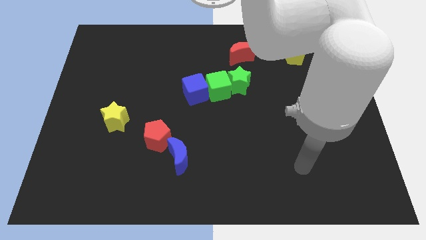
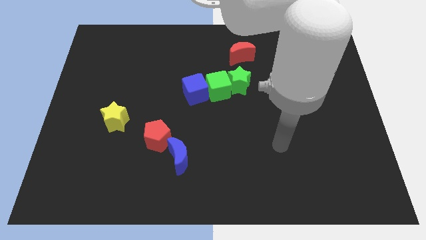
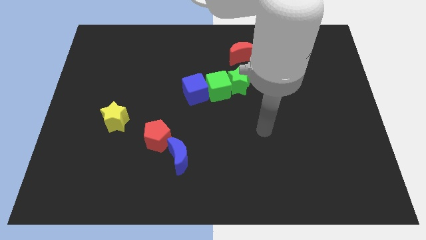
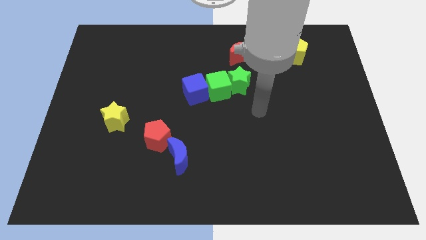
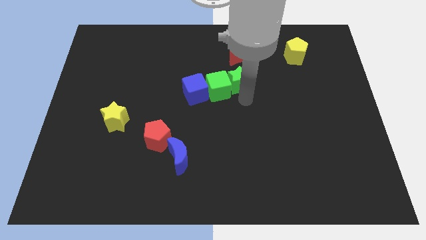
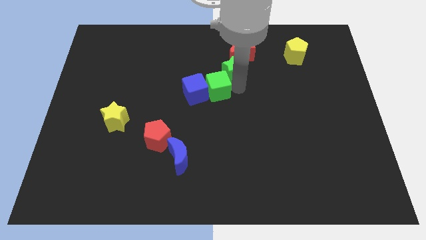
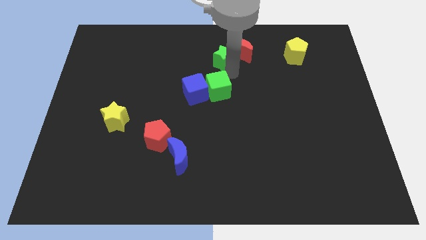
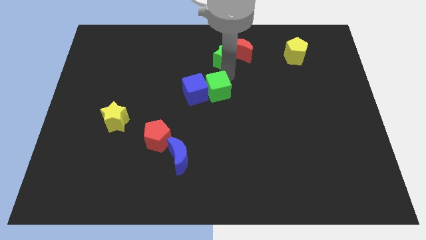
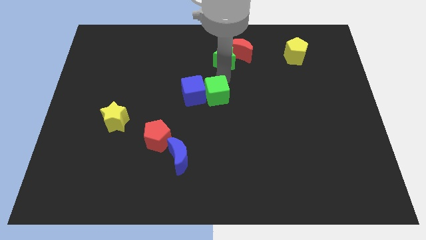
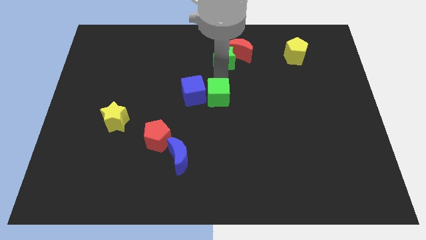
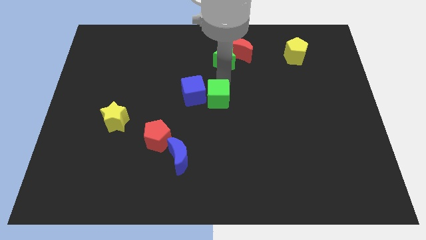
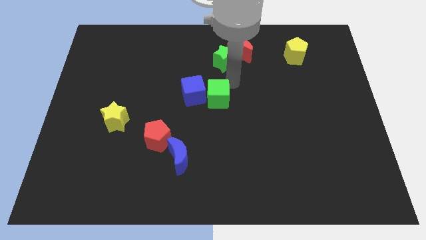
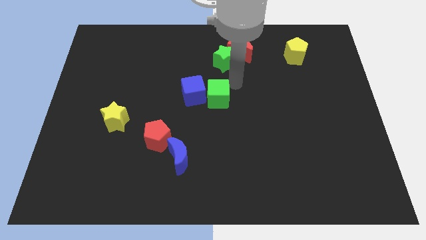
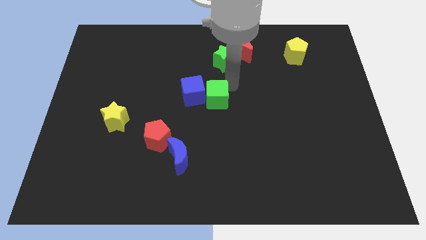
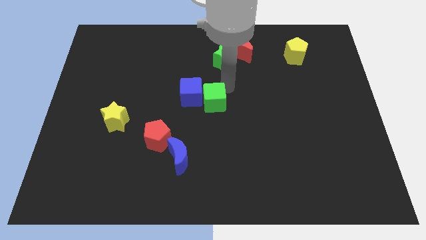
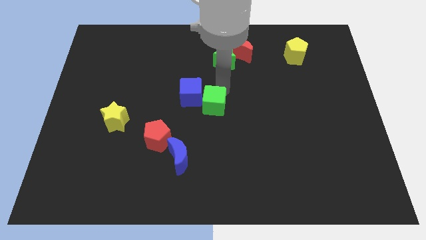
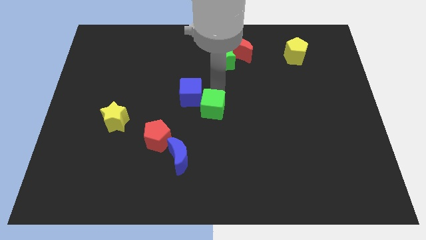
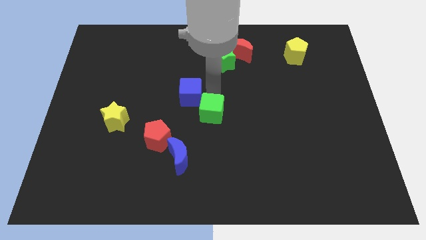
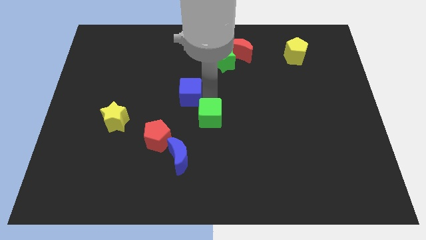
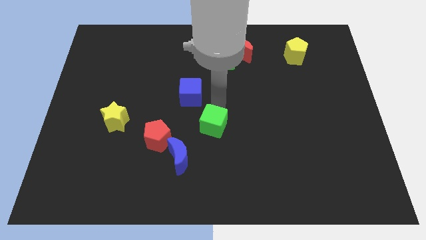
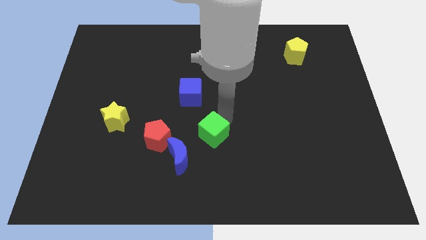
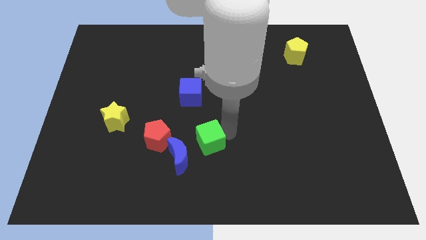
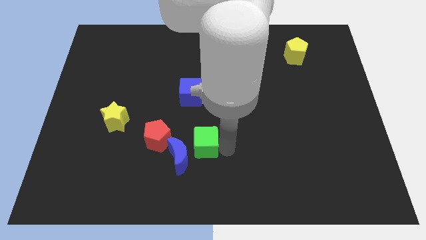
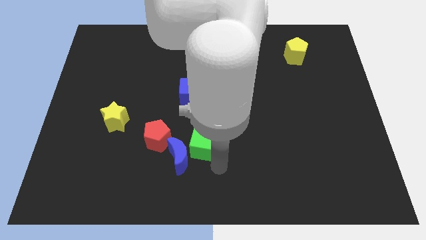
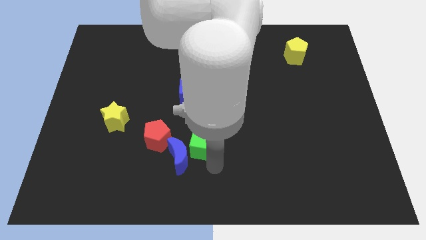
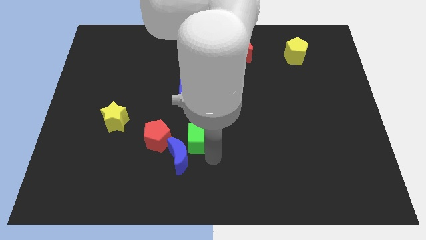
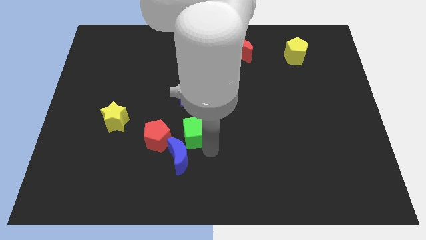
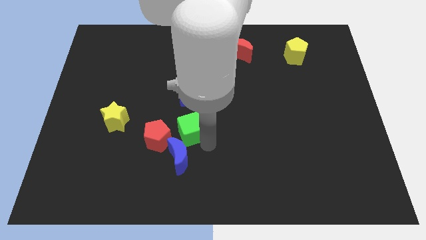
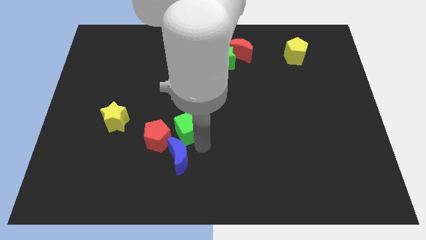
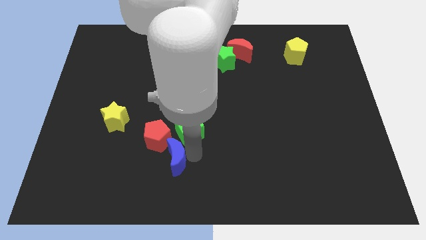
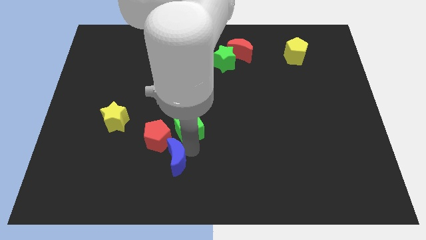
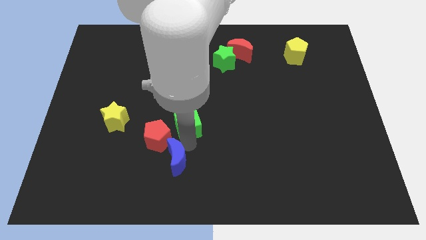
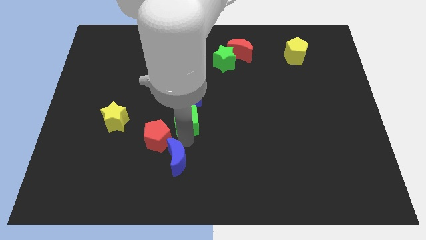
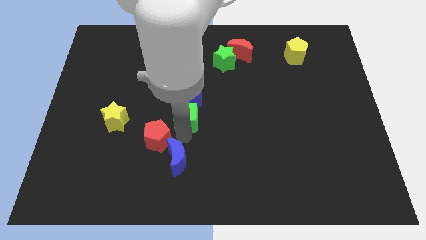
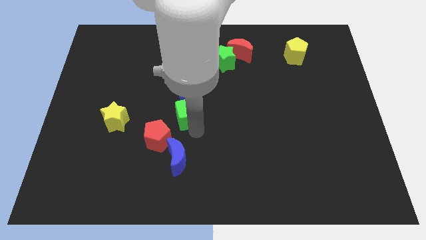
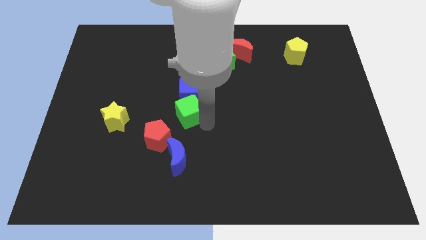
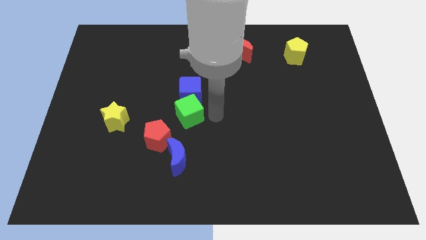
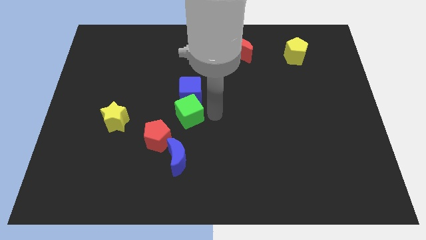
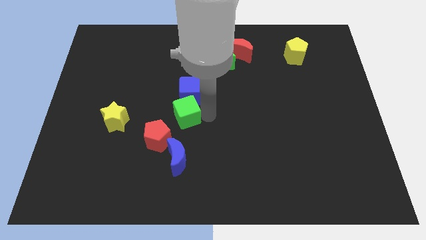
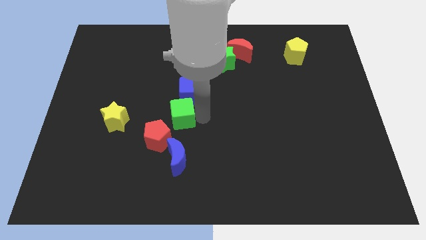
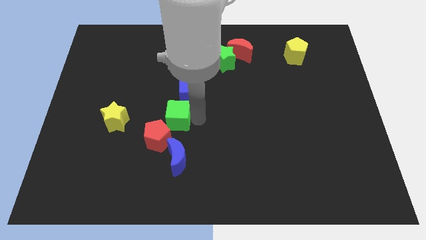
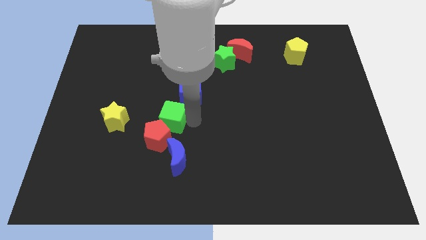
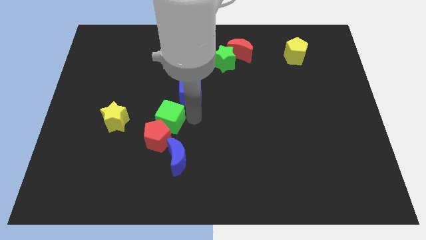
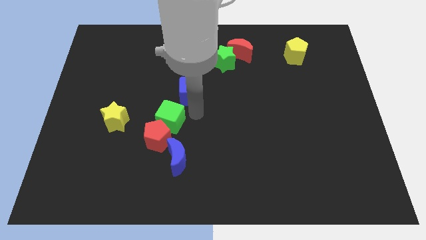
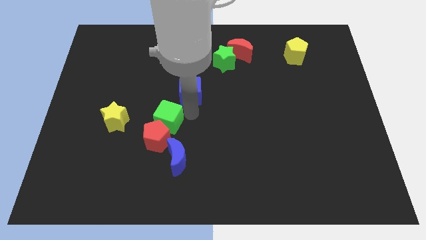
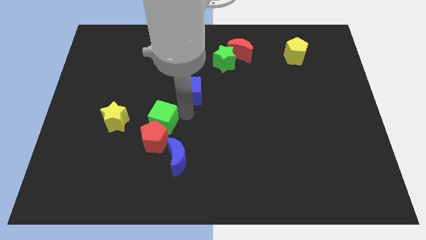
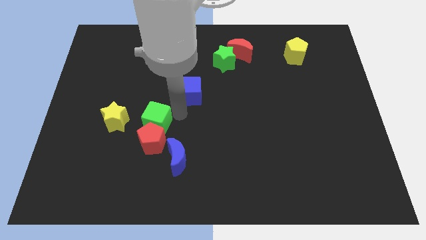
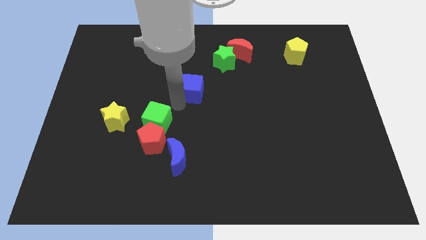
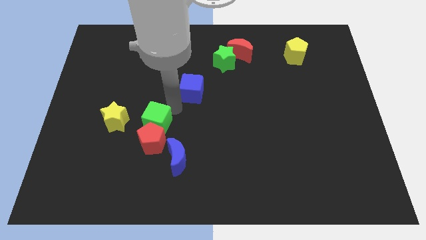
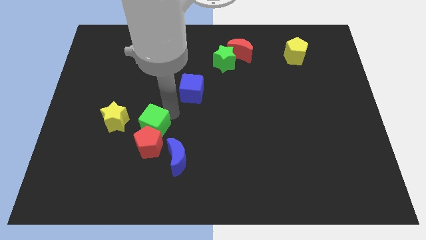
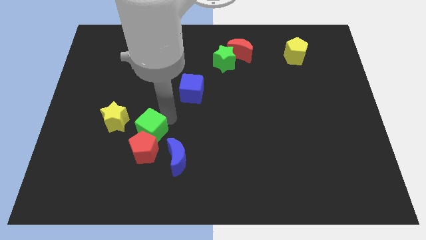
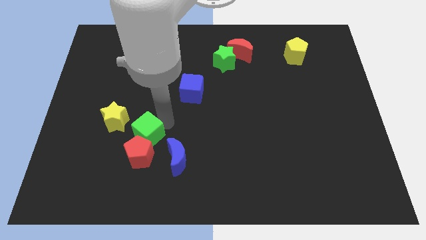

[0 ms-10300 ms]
push the green cube downwards and left

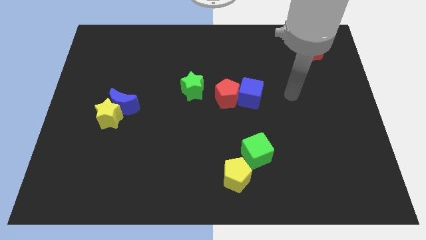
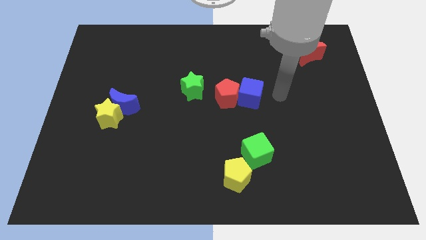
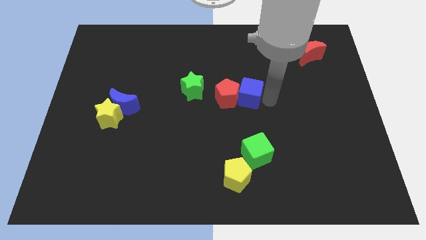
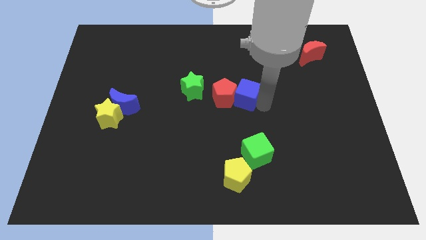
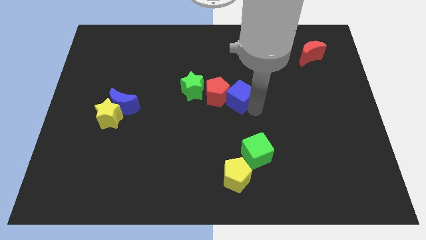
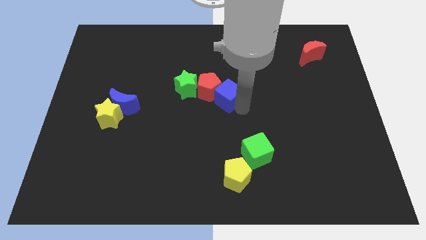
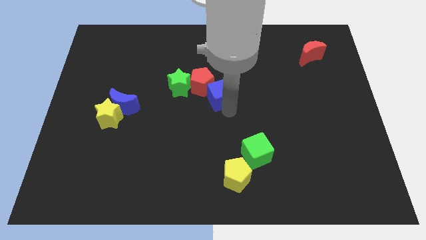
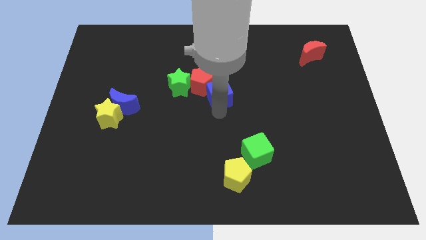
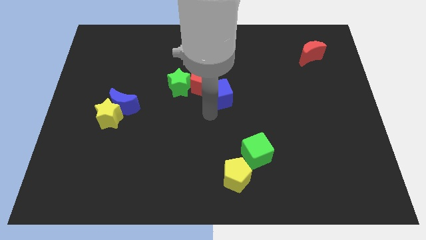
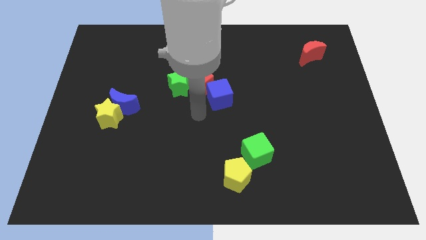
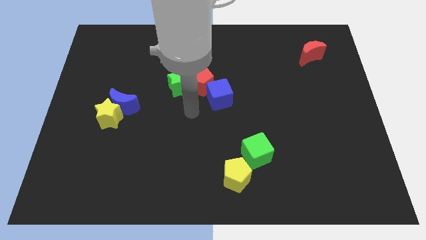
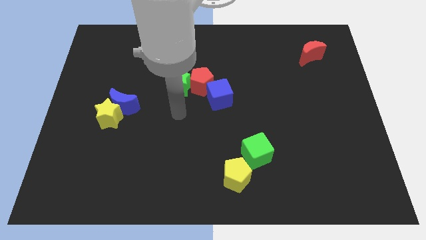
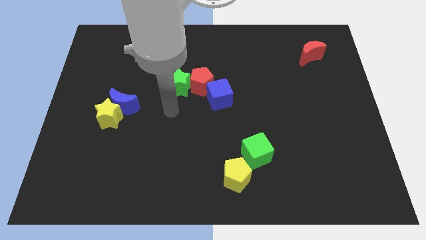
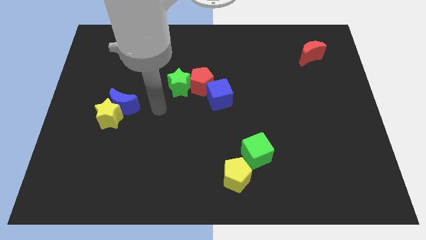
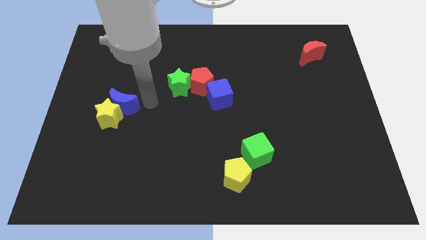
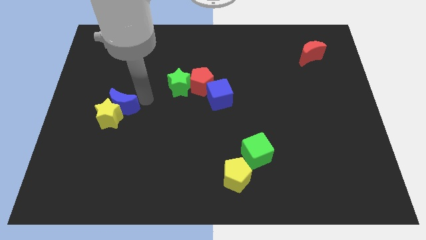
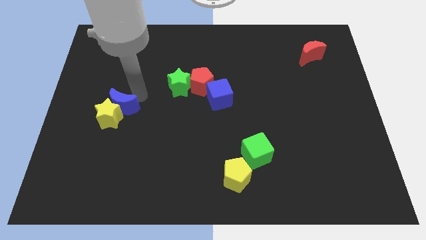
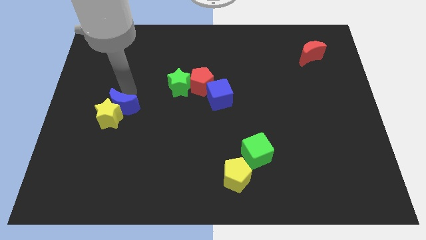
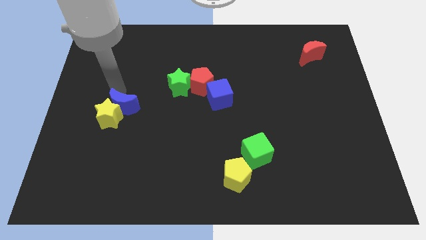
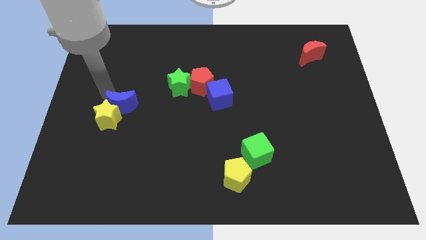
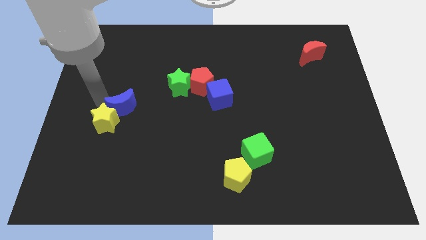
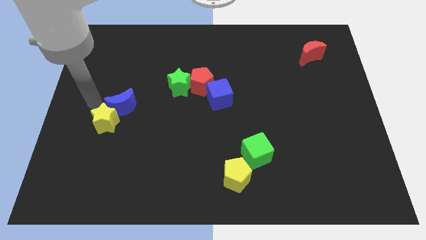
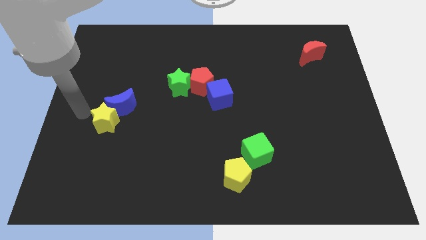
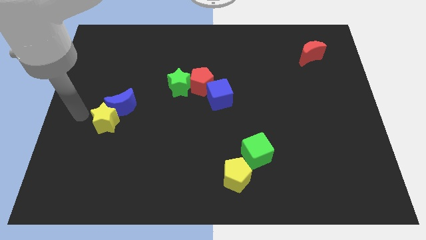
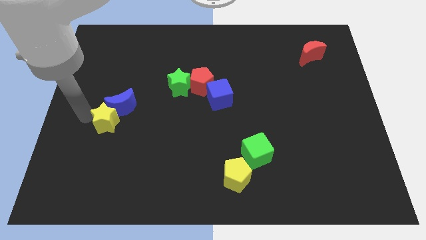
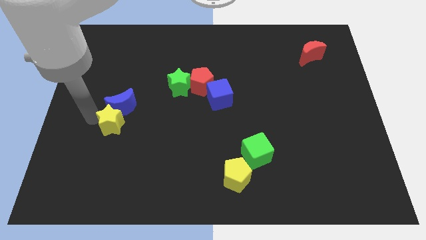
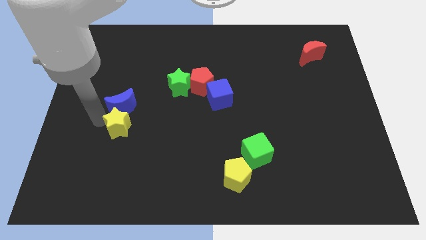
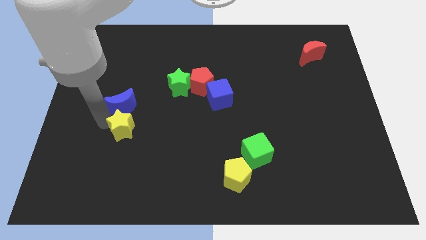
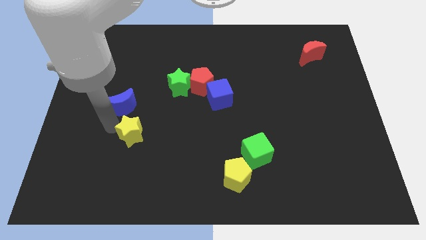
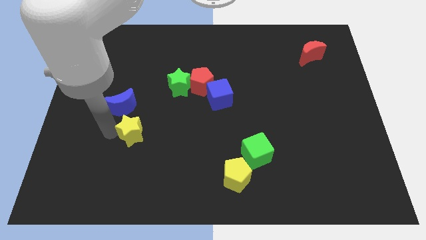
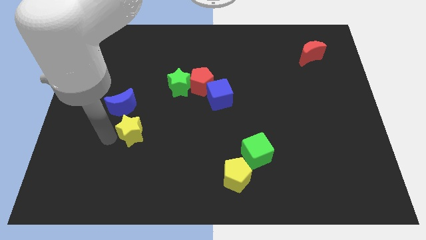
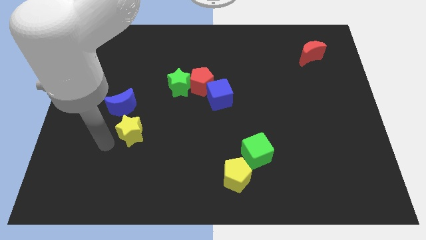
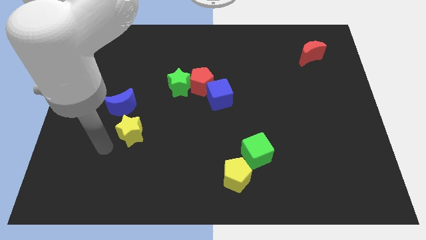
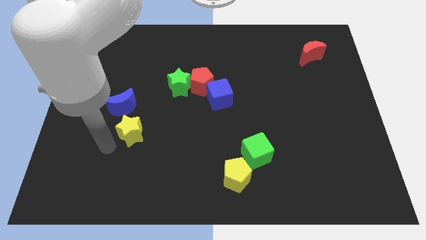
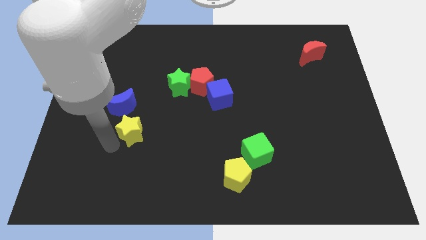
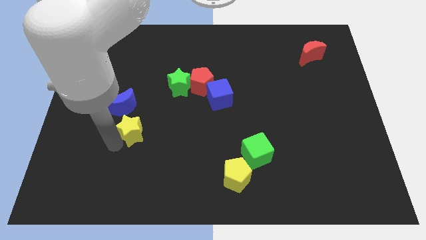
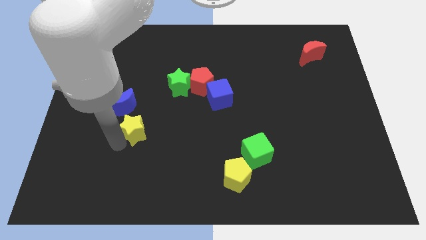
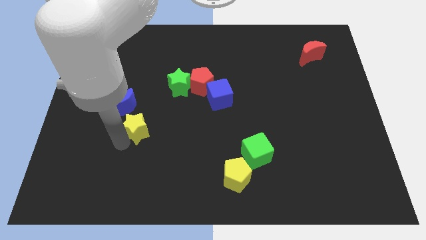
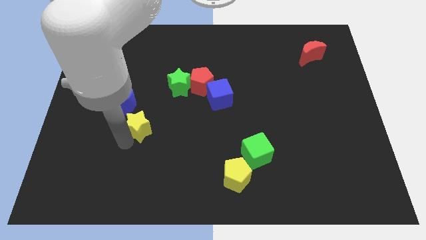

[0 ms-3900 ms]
slightly slide the yellow star to the right
